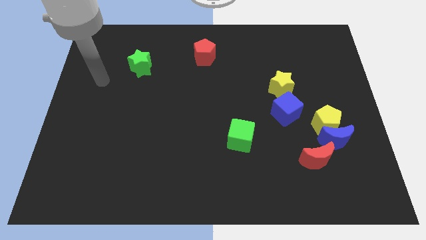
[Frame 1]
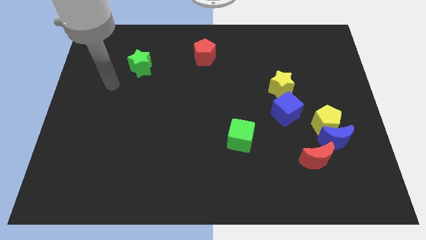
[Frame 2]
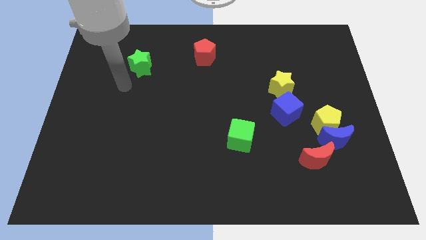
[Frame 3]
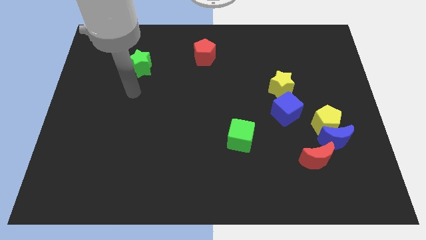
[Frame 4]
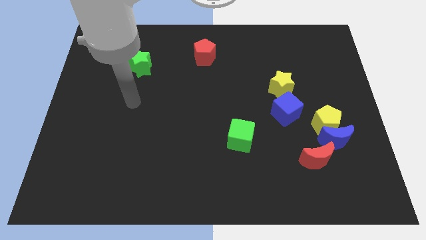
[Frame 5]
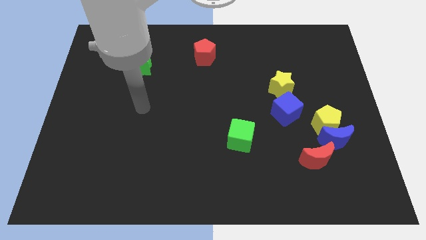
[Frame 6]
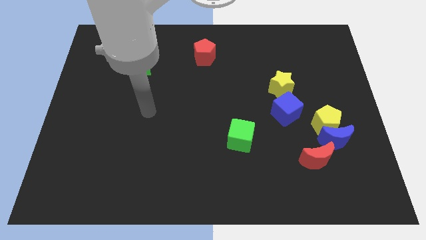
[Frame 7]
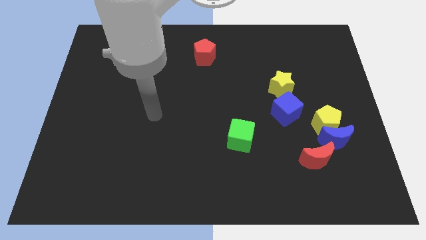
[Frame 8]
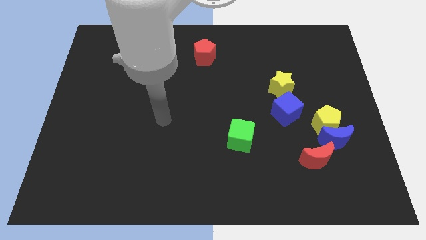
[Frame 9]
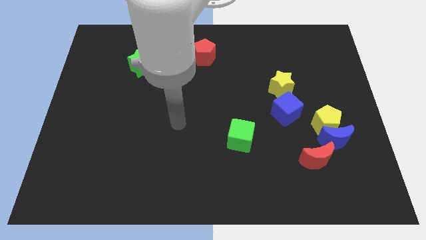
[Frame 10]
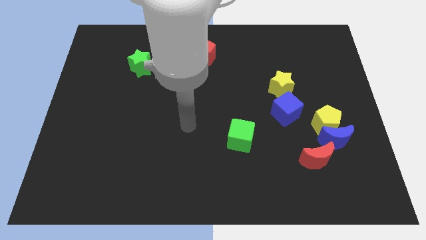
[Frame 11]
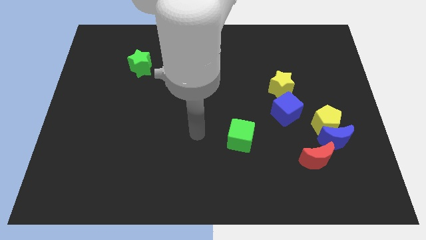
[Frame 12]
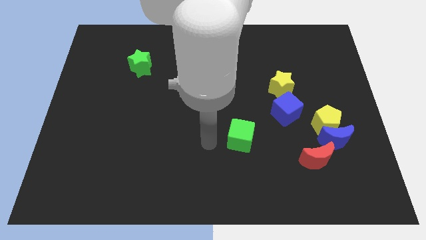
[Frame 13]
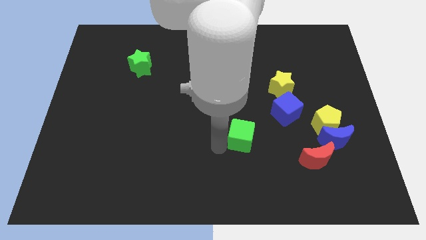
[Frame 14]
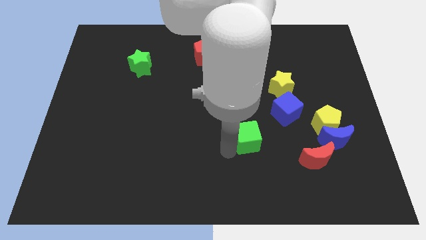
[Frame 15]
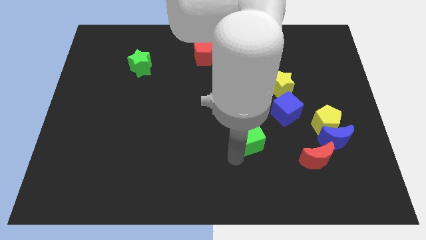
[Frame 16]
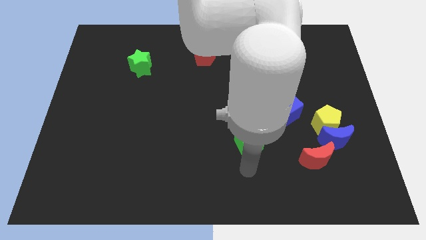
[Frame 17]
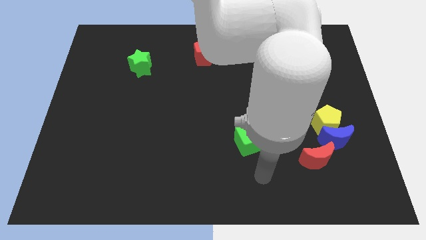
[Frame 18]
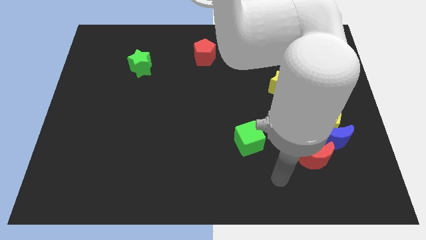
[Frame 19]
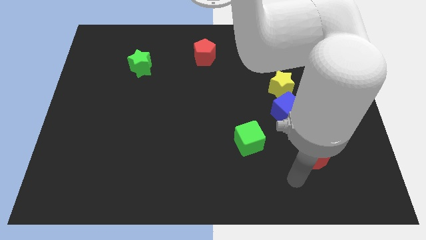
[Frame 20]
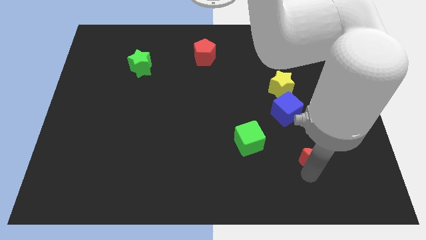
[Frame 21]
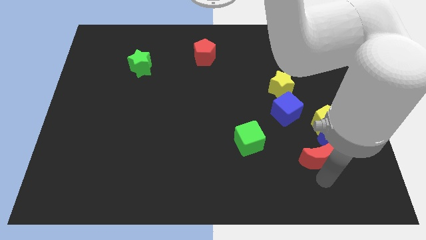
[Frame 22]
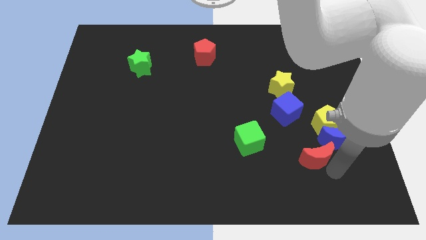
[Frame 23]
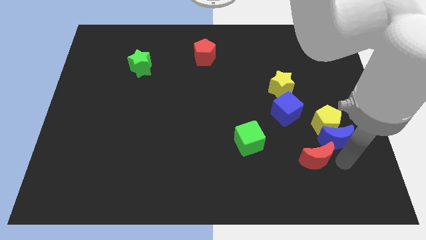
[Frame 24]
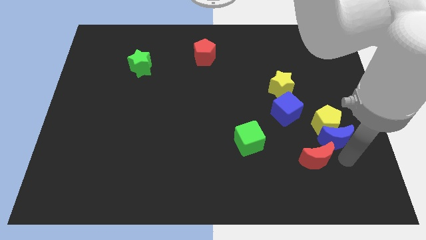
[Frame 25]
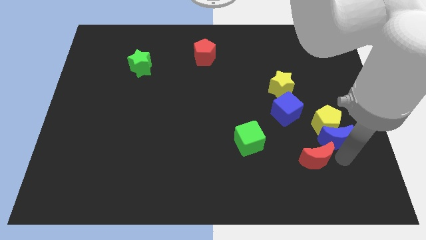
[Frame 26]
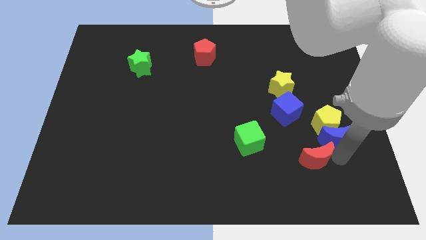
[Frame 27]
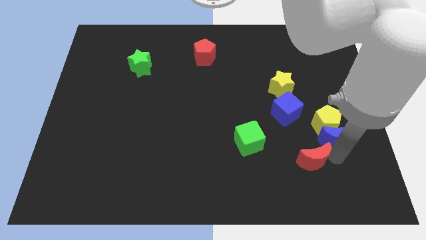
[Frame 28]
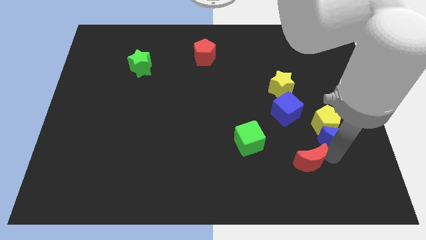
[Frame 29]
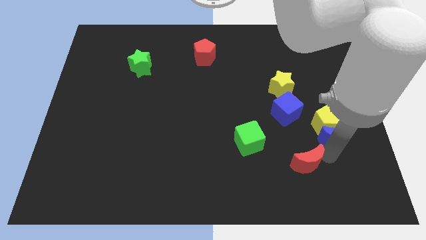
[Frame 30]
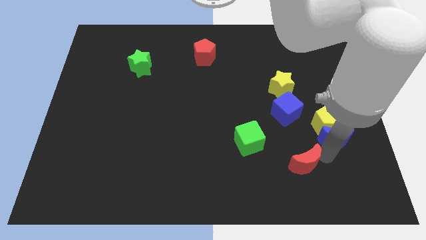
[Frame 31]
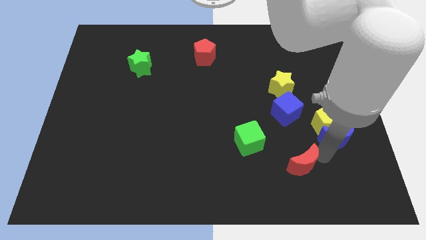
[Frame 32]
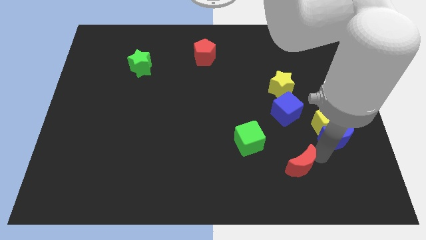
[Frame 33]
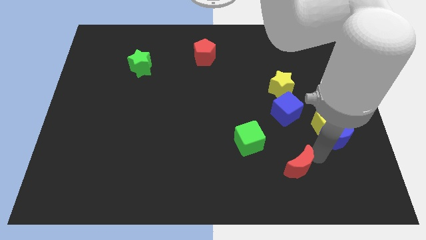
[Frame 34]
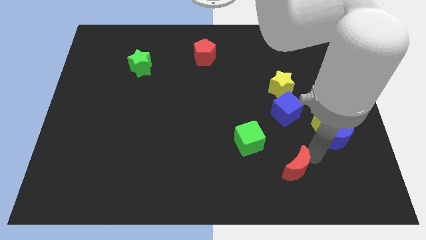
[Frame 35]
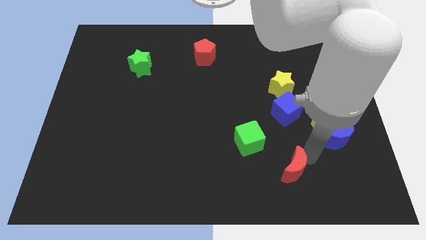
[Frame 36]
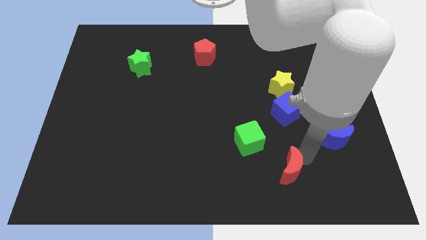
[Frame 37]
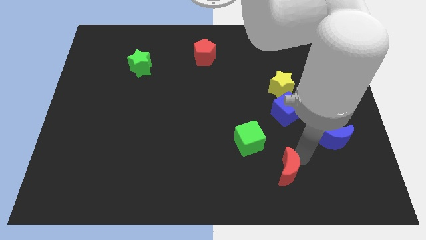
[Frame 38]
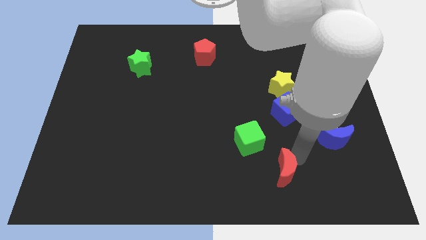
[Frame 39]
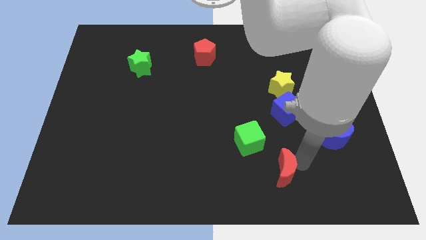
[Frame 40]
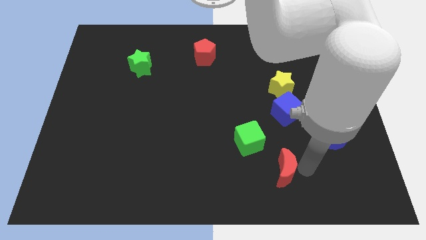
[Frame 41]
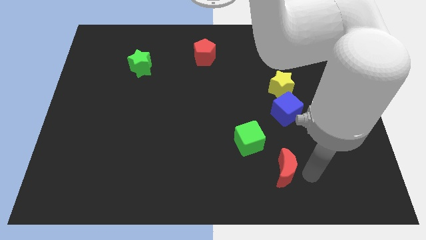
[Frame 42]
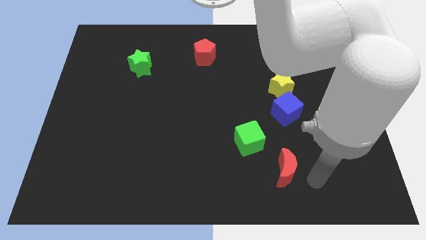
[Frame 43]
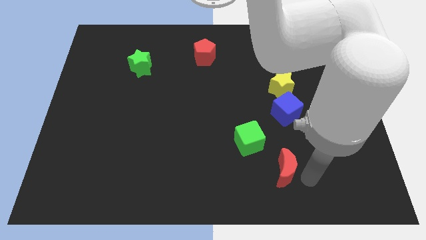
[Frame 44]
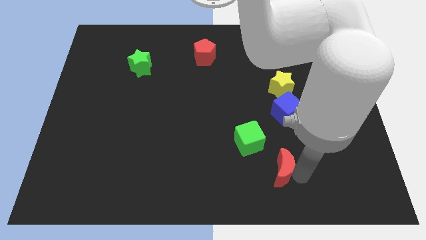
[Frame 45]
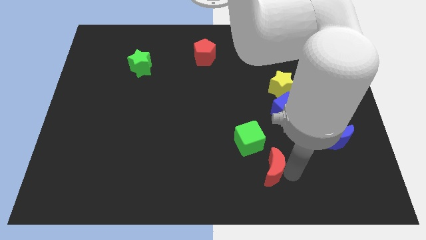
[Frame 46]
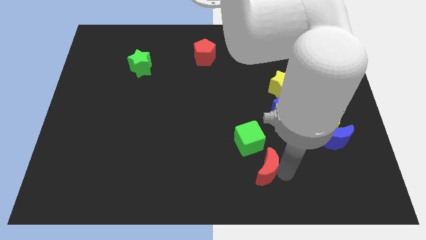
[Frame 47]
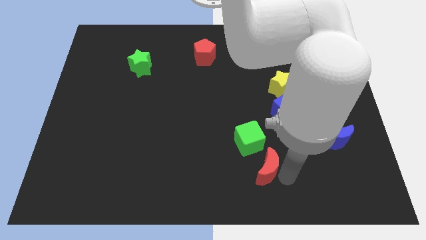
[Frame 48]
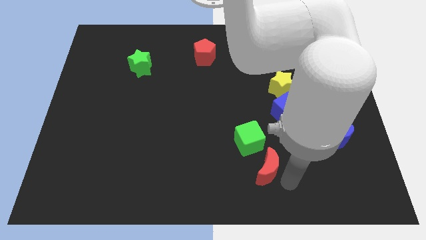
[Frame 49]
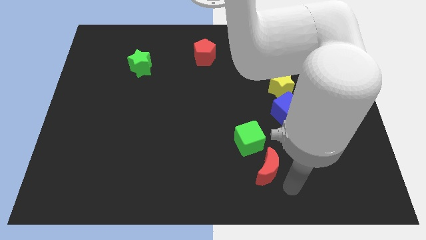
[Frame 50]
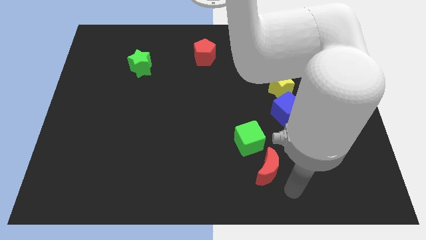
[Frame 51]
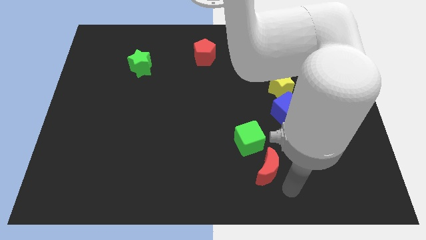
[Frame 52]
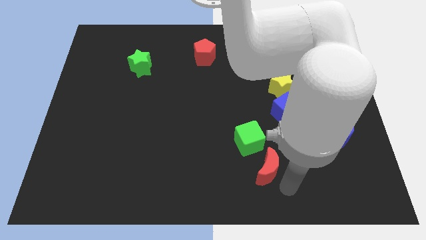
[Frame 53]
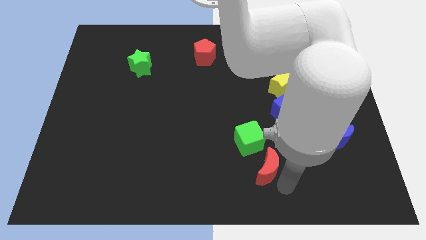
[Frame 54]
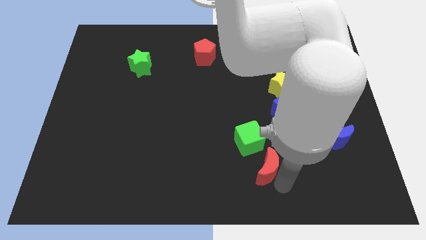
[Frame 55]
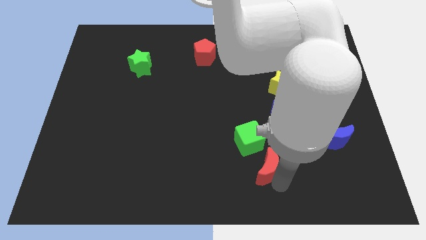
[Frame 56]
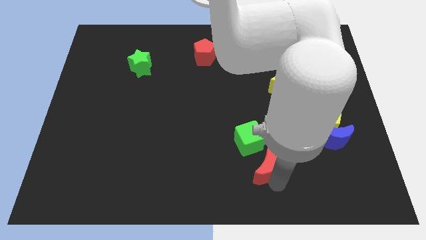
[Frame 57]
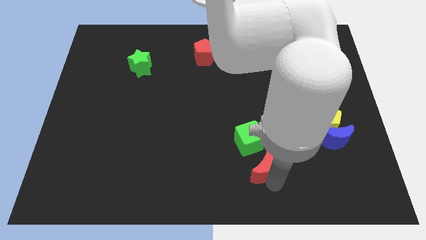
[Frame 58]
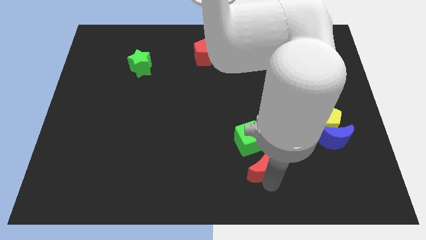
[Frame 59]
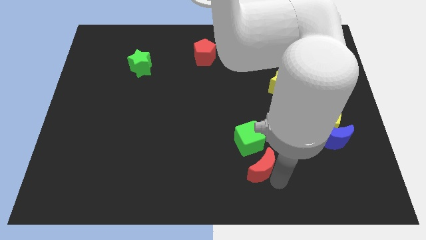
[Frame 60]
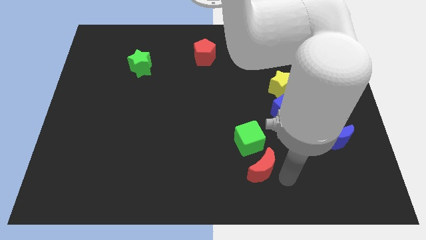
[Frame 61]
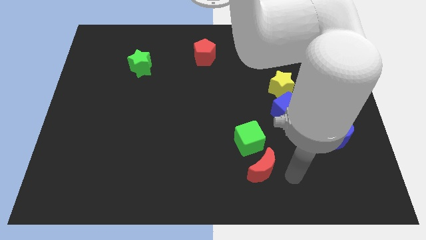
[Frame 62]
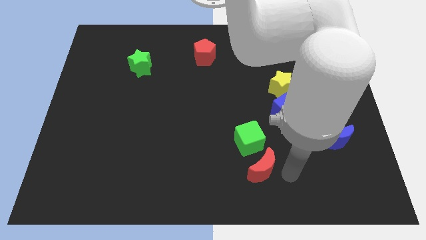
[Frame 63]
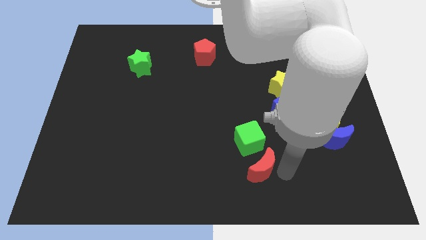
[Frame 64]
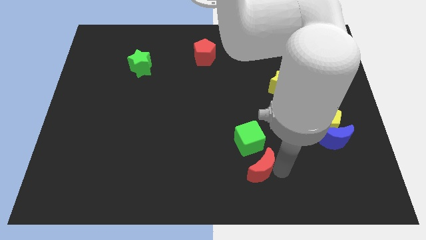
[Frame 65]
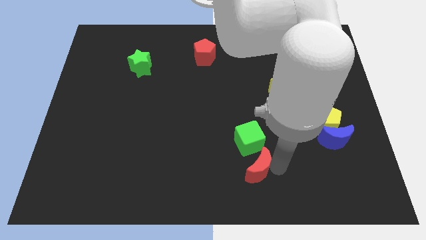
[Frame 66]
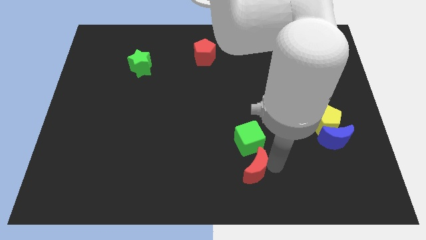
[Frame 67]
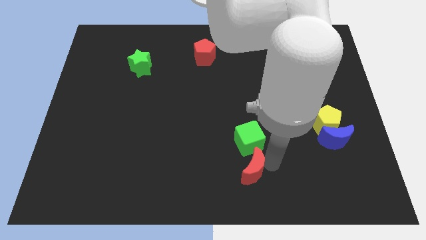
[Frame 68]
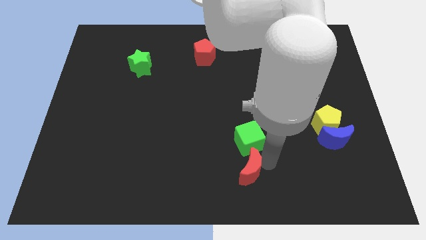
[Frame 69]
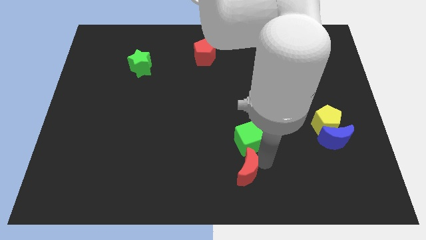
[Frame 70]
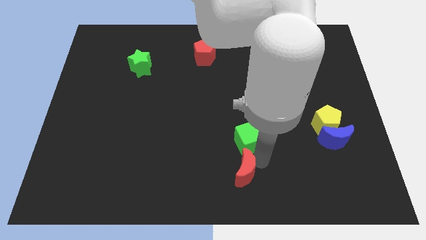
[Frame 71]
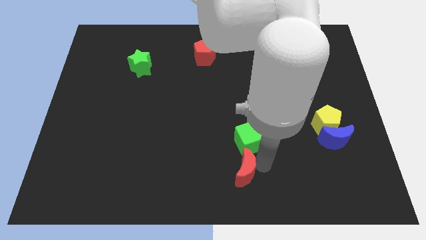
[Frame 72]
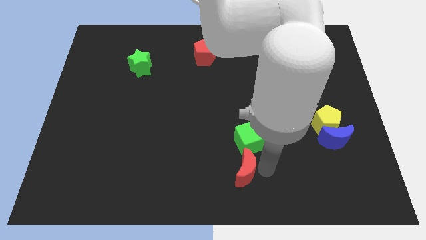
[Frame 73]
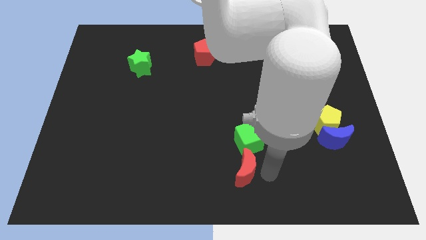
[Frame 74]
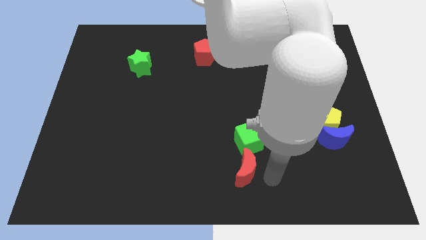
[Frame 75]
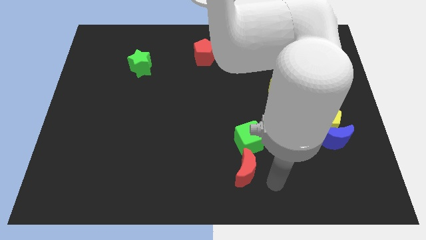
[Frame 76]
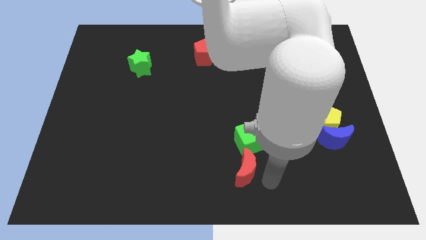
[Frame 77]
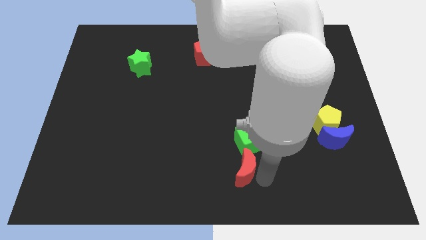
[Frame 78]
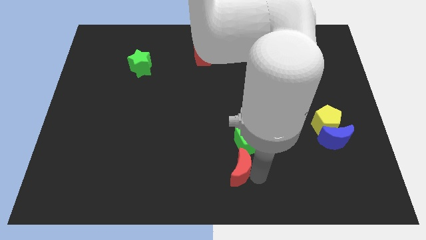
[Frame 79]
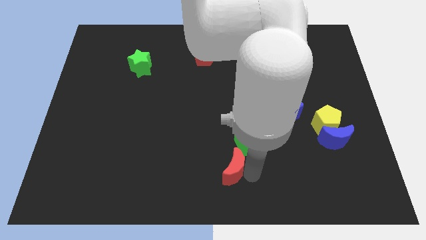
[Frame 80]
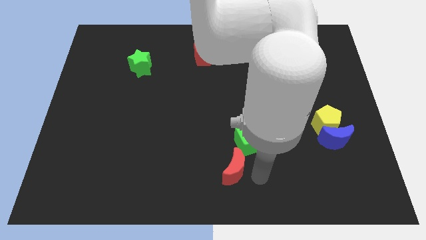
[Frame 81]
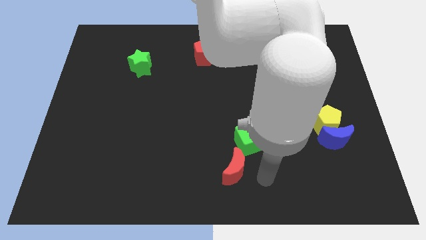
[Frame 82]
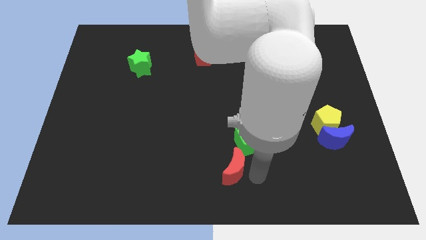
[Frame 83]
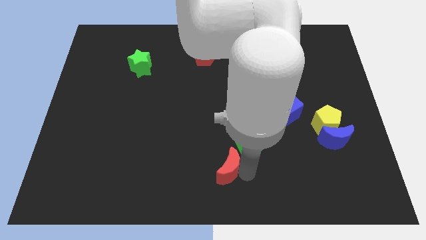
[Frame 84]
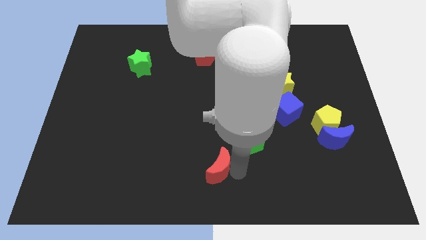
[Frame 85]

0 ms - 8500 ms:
push the red moon to the left
